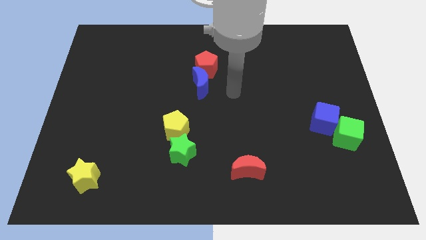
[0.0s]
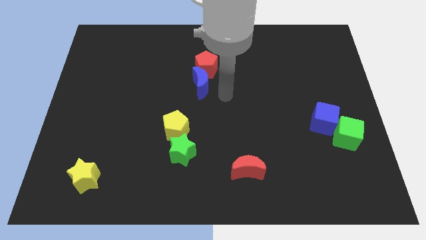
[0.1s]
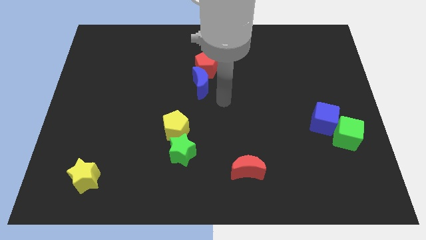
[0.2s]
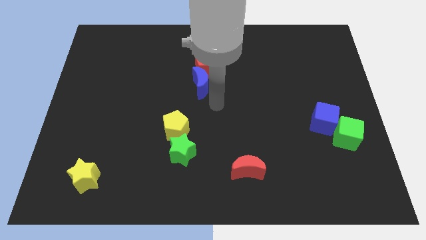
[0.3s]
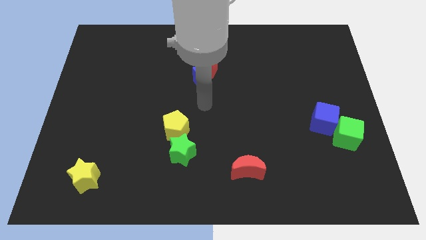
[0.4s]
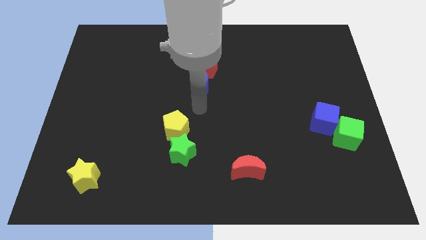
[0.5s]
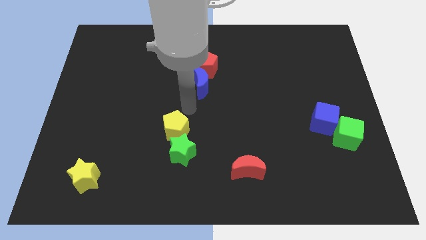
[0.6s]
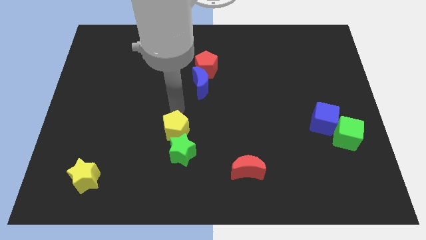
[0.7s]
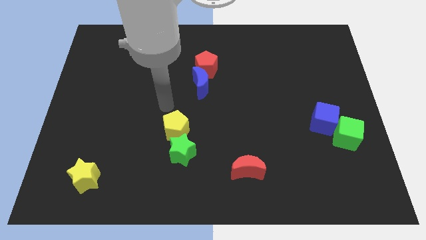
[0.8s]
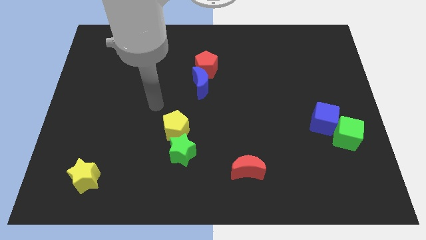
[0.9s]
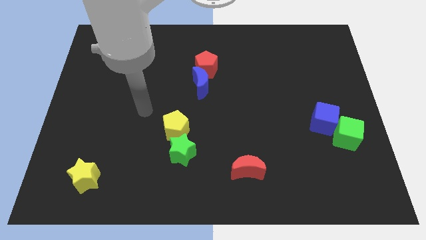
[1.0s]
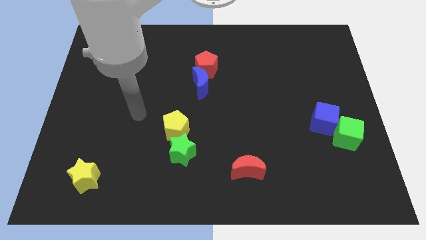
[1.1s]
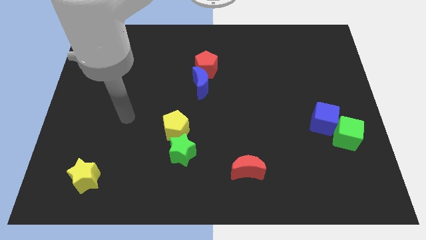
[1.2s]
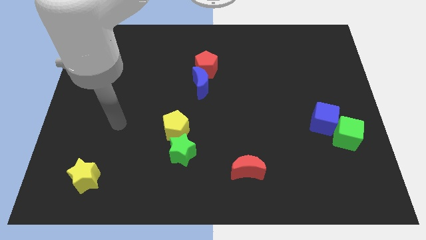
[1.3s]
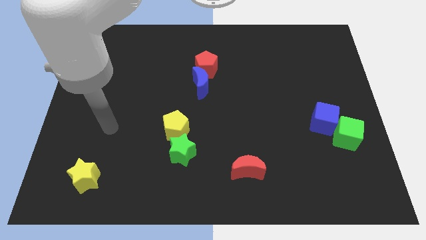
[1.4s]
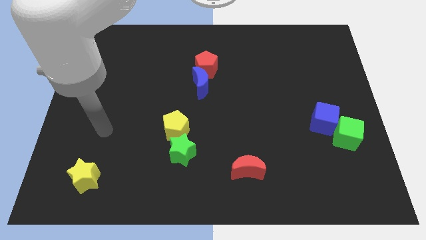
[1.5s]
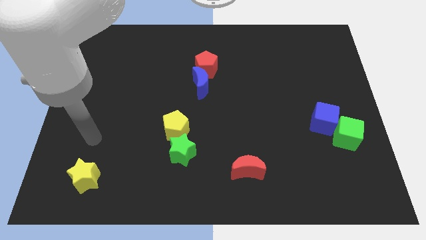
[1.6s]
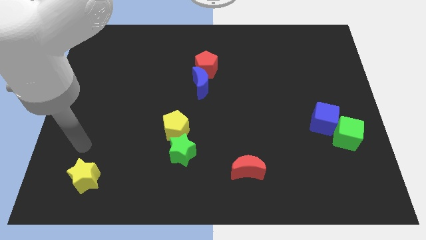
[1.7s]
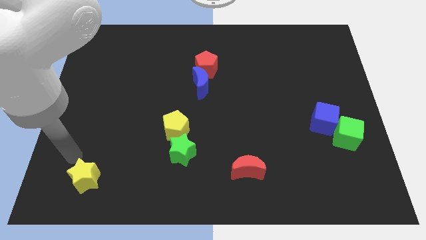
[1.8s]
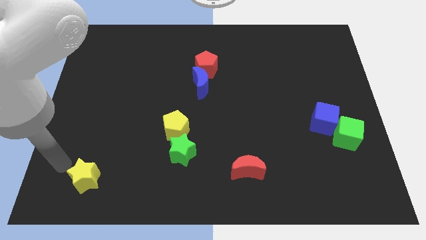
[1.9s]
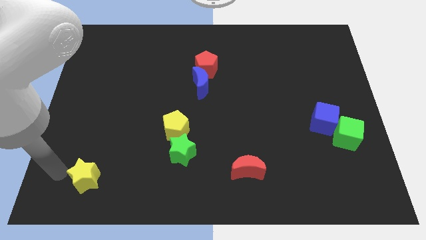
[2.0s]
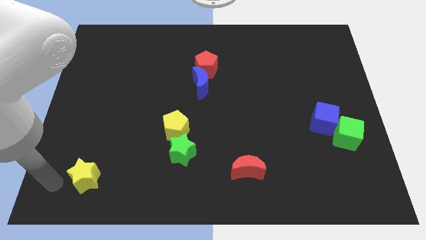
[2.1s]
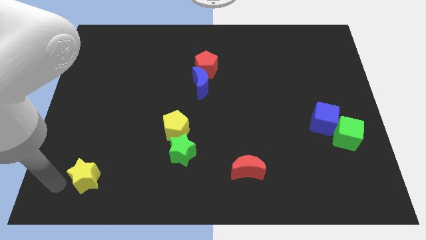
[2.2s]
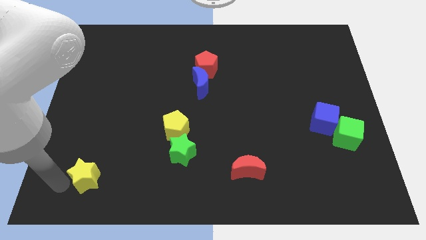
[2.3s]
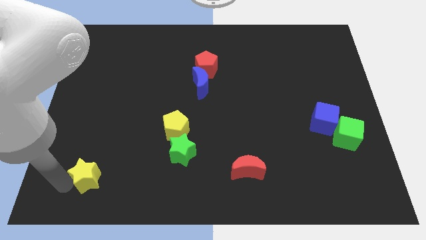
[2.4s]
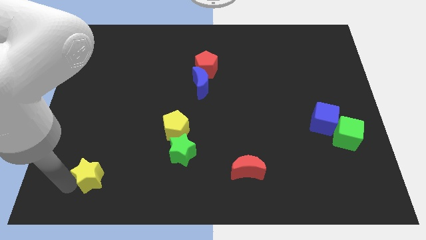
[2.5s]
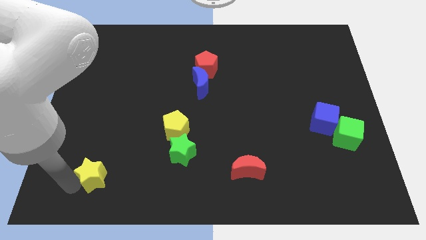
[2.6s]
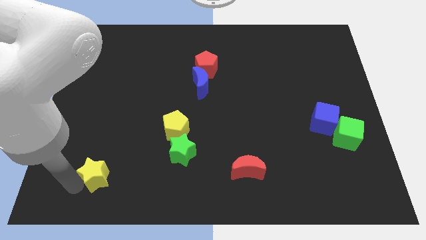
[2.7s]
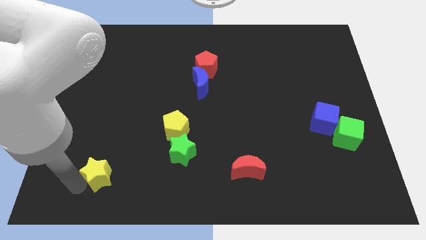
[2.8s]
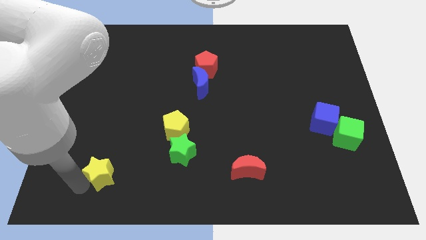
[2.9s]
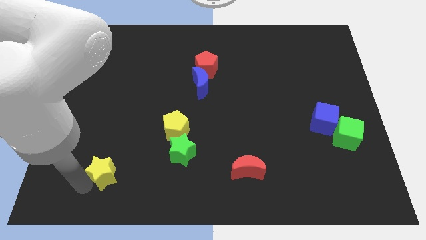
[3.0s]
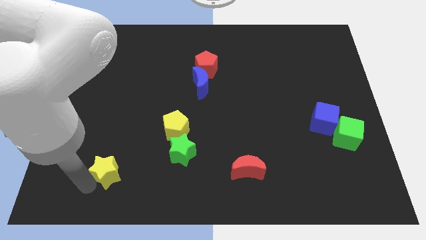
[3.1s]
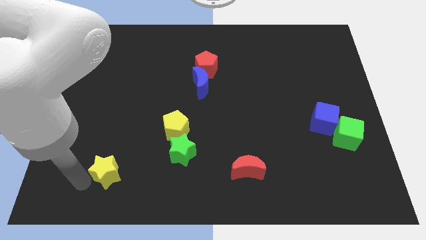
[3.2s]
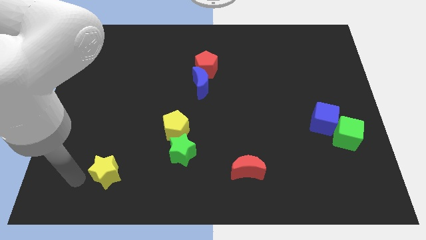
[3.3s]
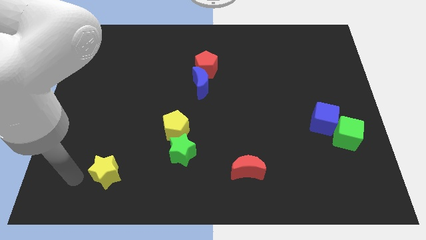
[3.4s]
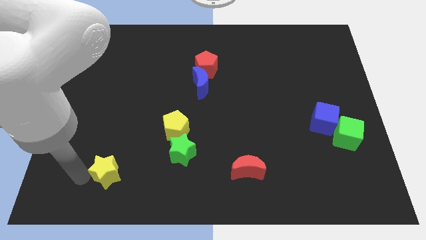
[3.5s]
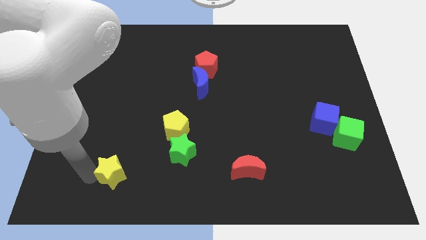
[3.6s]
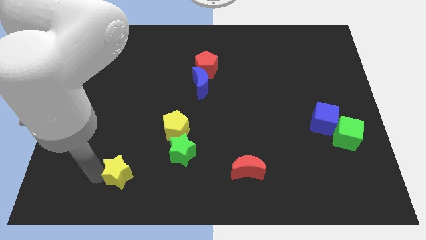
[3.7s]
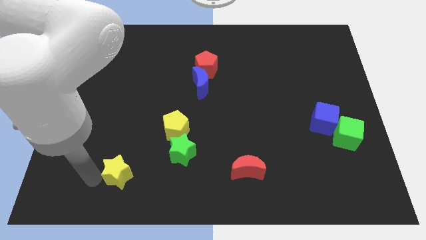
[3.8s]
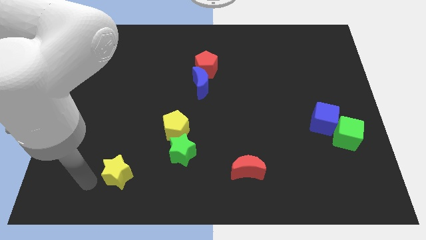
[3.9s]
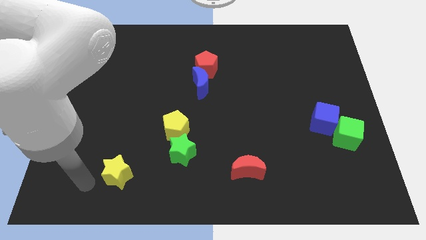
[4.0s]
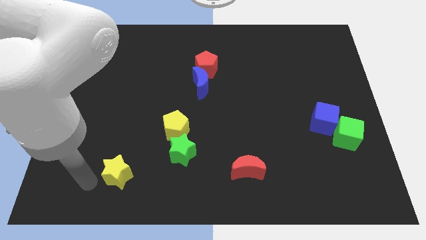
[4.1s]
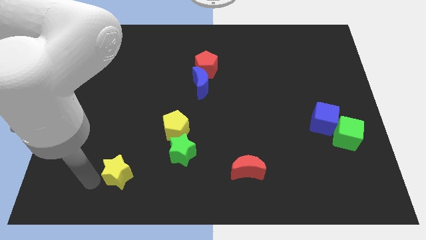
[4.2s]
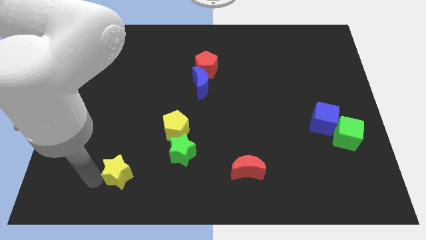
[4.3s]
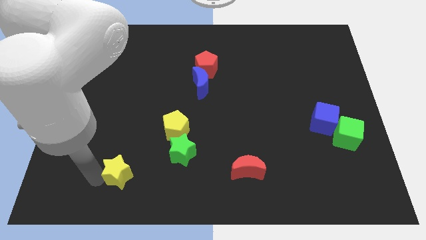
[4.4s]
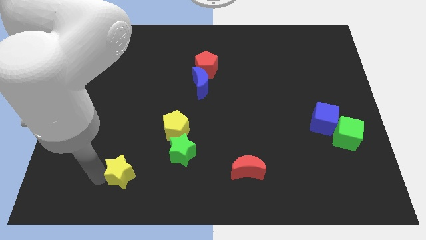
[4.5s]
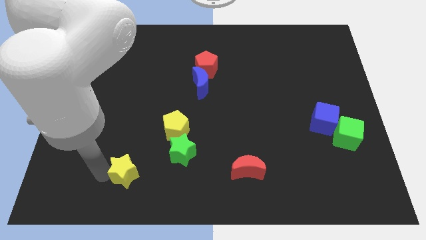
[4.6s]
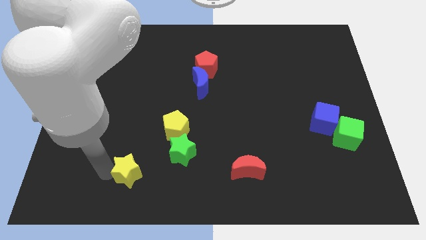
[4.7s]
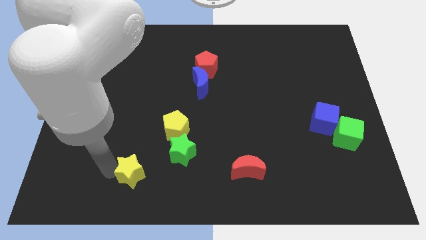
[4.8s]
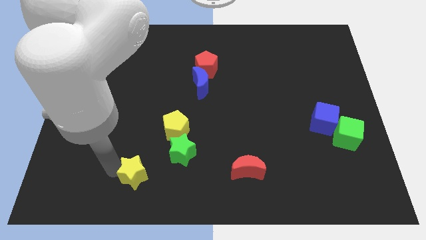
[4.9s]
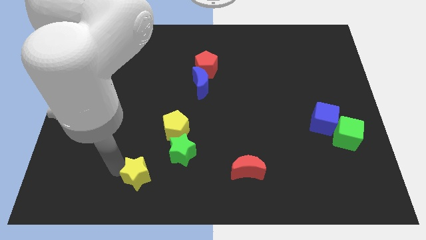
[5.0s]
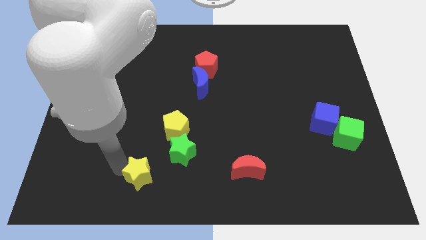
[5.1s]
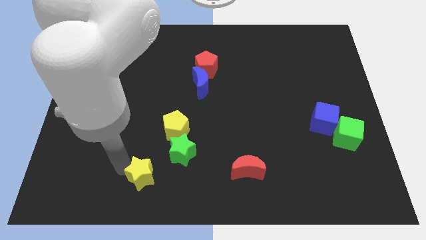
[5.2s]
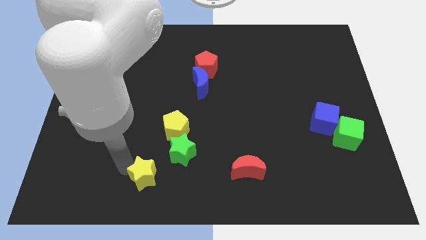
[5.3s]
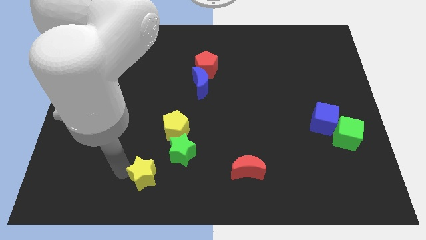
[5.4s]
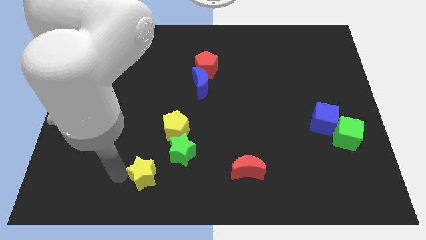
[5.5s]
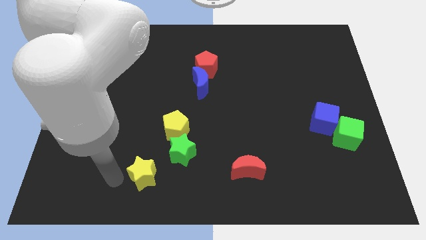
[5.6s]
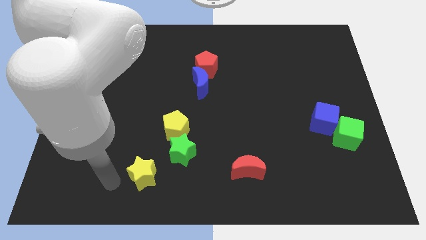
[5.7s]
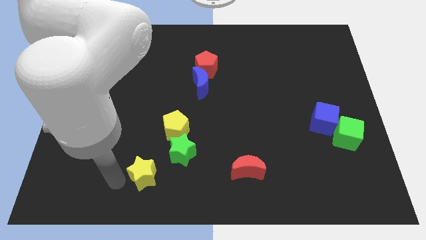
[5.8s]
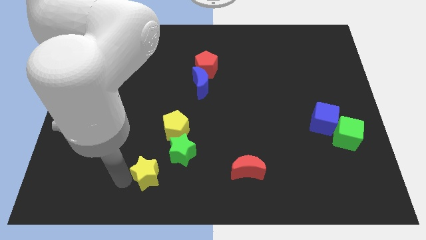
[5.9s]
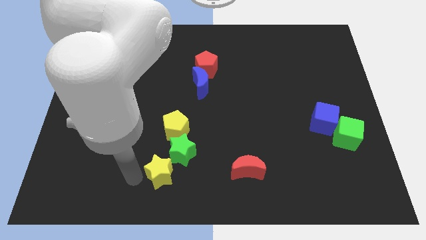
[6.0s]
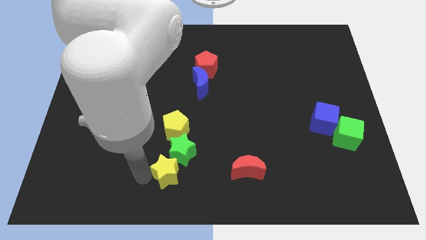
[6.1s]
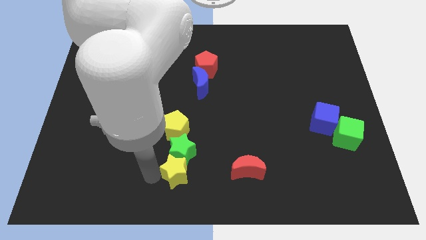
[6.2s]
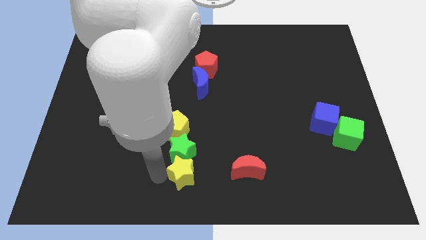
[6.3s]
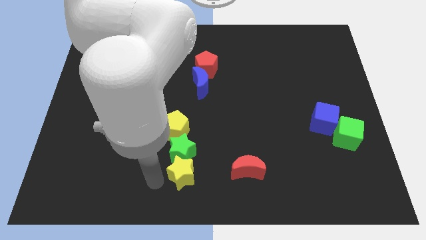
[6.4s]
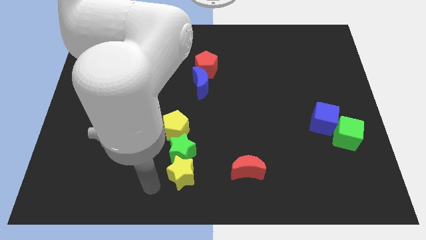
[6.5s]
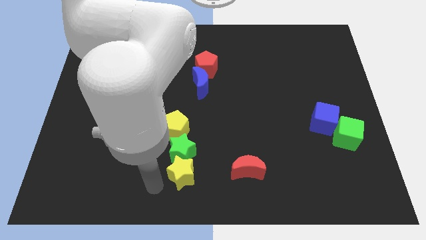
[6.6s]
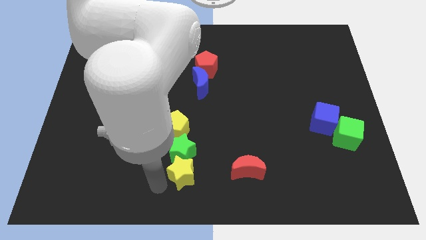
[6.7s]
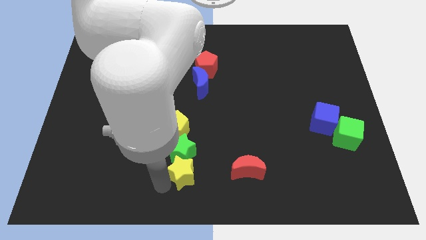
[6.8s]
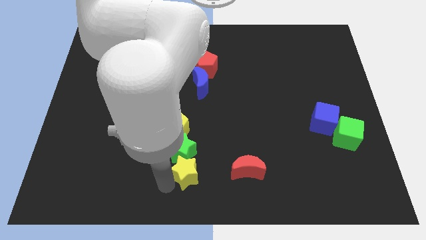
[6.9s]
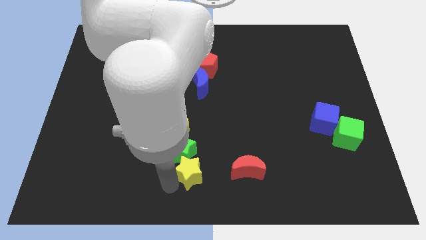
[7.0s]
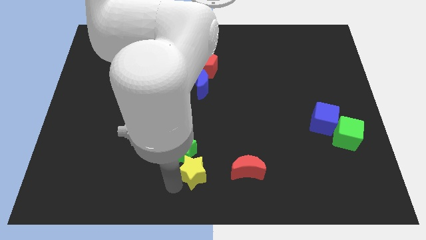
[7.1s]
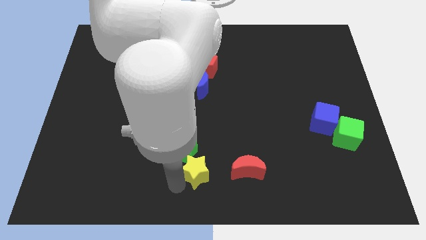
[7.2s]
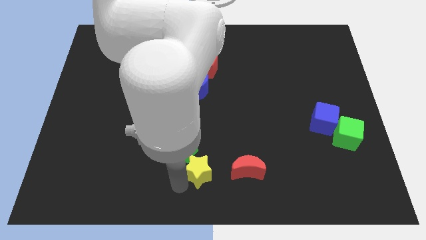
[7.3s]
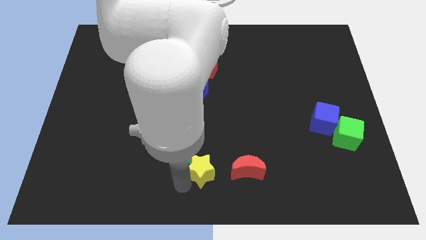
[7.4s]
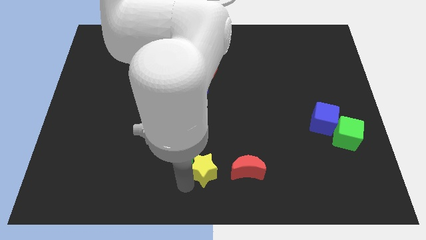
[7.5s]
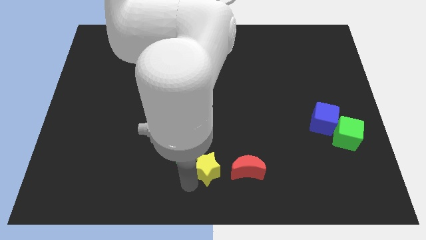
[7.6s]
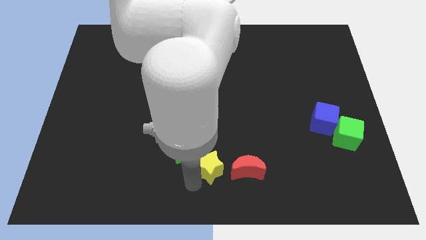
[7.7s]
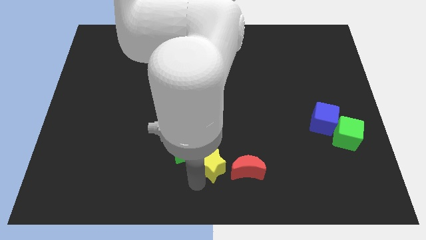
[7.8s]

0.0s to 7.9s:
move the yellow star to the top left side of the red moon
